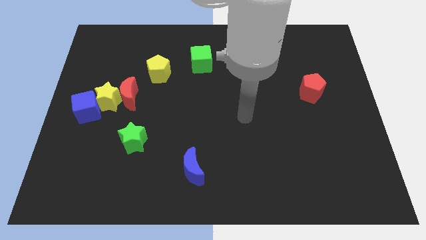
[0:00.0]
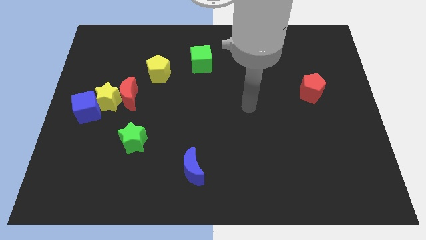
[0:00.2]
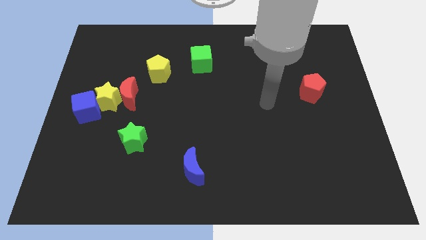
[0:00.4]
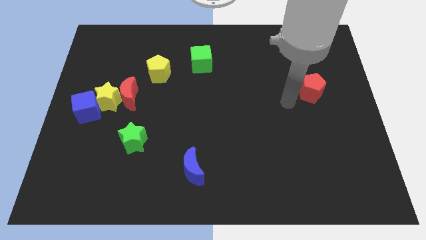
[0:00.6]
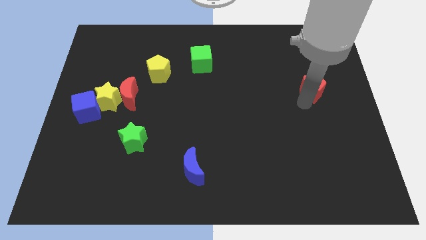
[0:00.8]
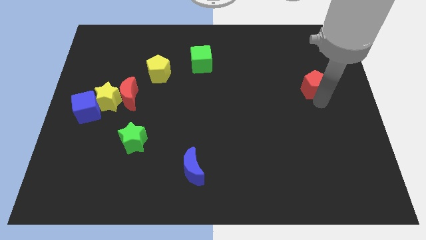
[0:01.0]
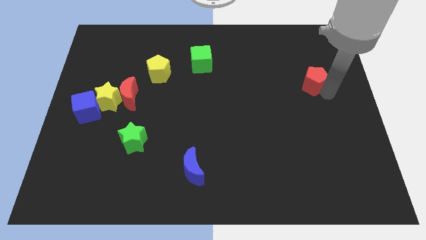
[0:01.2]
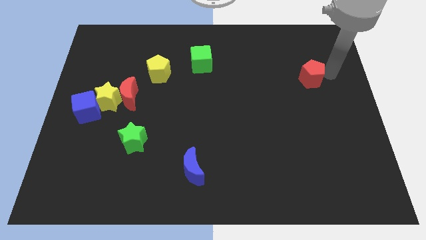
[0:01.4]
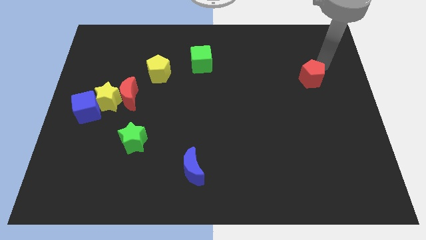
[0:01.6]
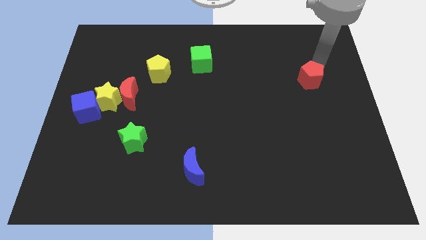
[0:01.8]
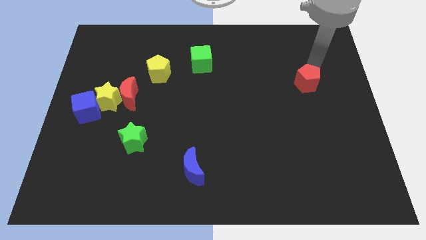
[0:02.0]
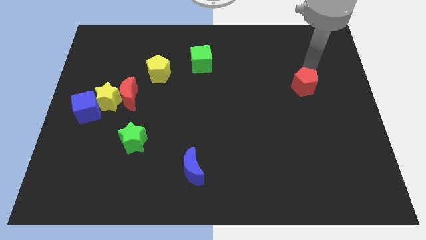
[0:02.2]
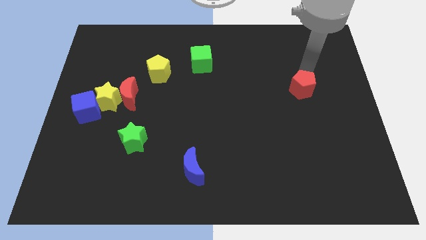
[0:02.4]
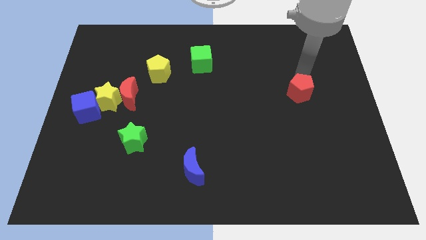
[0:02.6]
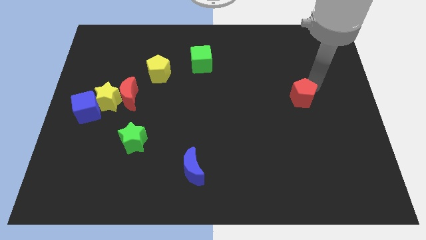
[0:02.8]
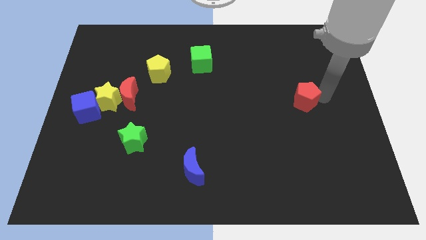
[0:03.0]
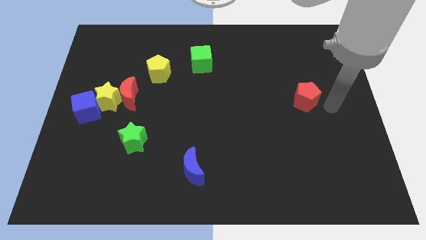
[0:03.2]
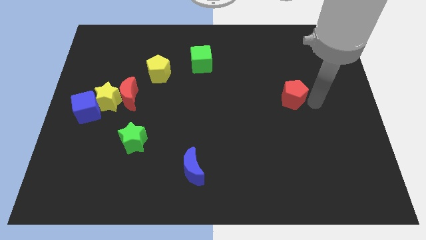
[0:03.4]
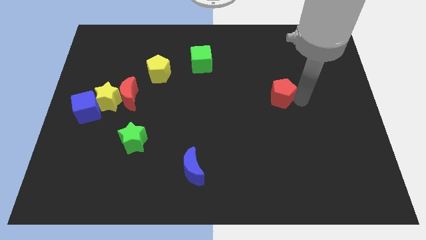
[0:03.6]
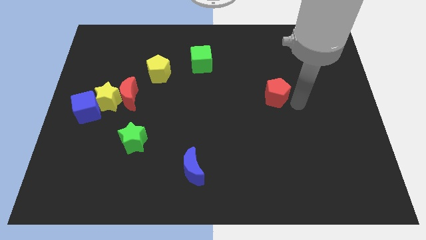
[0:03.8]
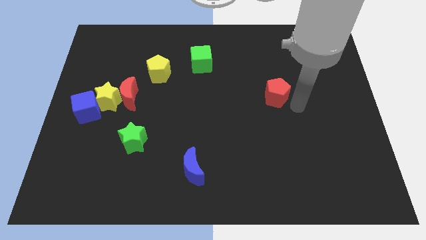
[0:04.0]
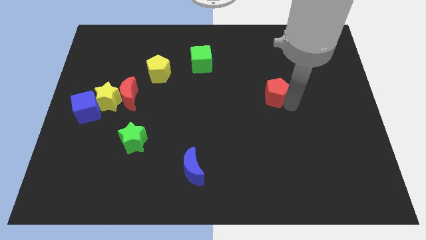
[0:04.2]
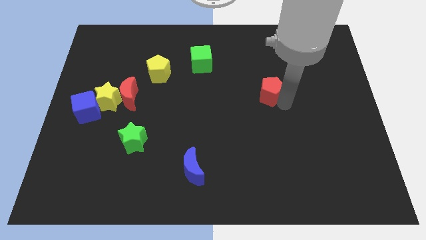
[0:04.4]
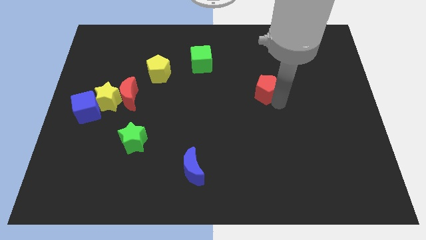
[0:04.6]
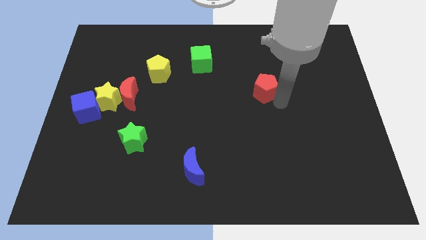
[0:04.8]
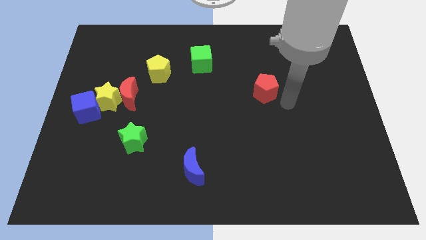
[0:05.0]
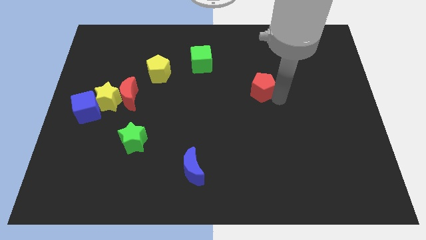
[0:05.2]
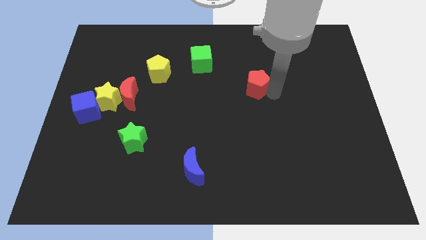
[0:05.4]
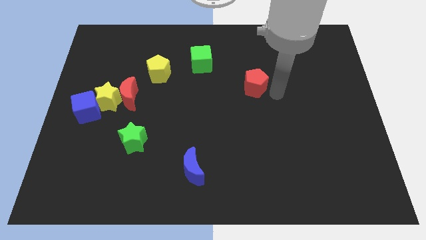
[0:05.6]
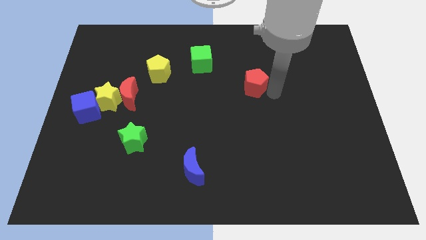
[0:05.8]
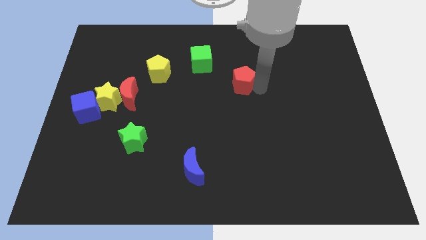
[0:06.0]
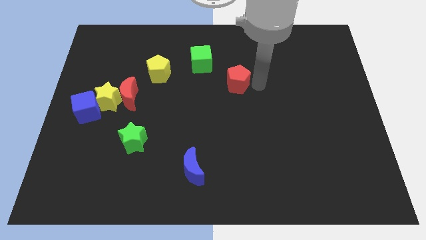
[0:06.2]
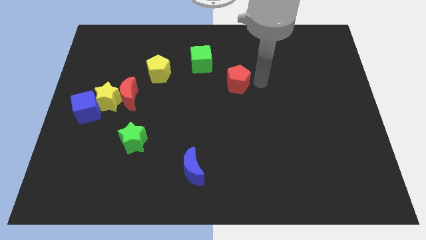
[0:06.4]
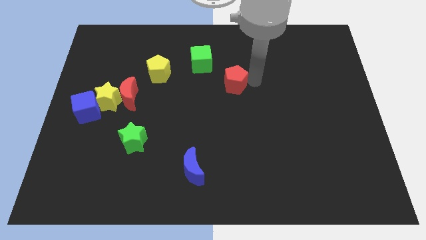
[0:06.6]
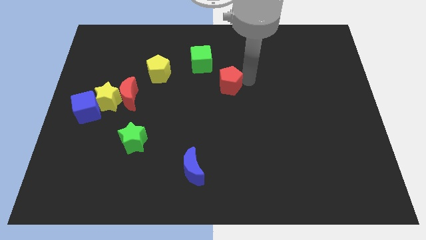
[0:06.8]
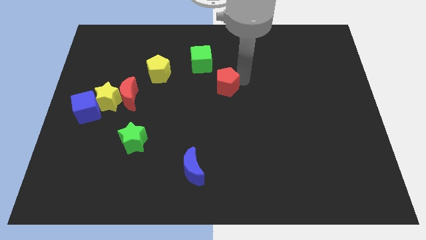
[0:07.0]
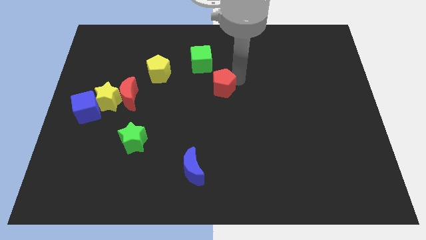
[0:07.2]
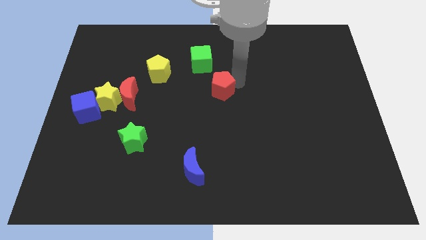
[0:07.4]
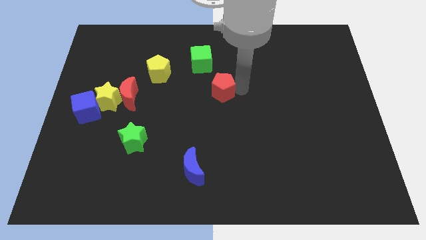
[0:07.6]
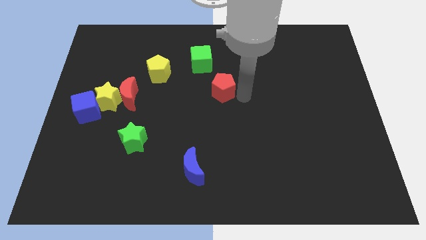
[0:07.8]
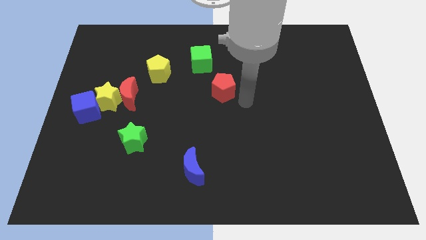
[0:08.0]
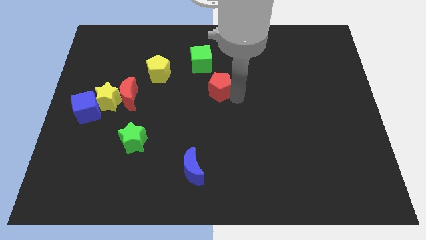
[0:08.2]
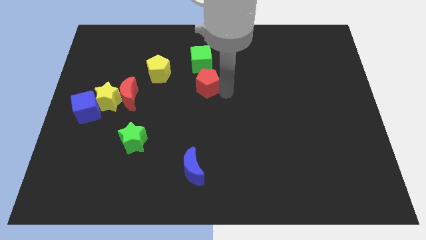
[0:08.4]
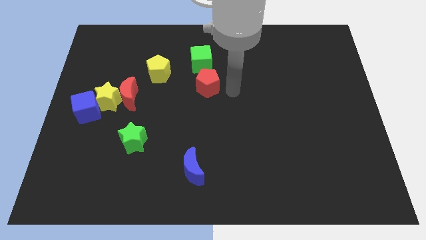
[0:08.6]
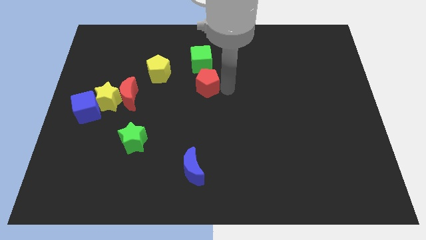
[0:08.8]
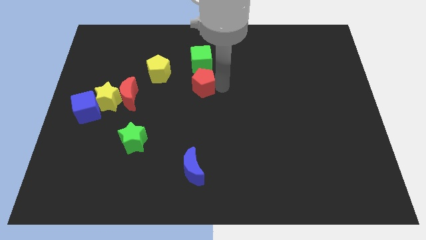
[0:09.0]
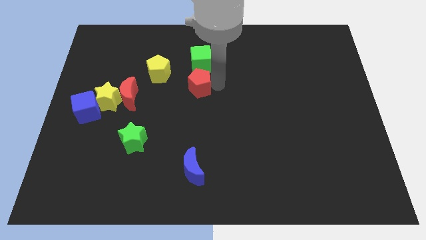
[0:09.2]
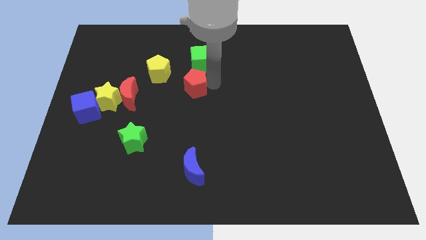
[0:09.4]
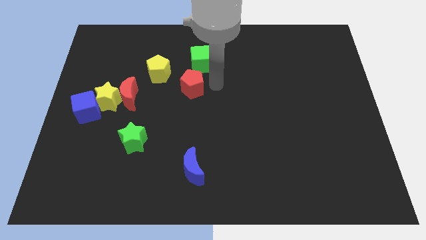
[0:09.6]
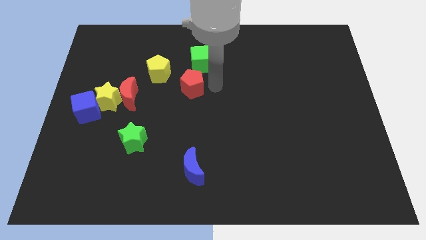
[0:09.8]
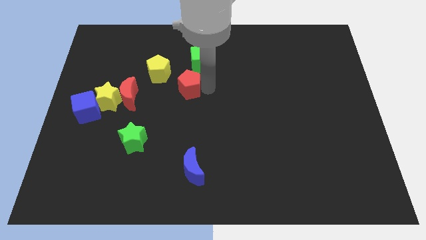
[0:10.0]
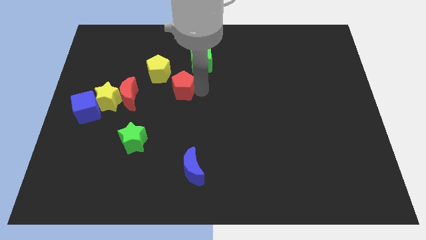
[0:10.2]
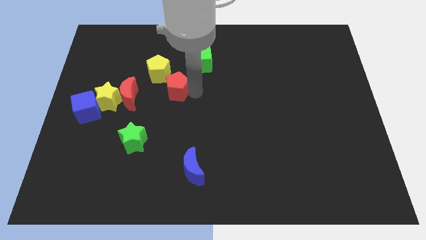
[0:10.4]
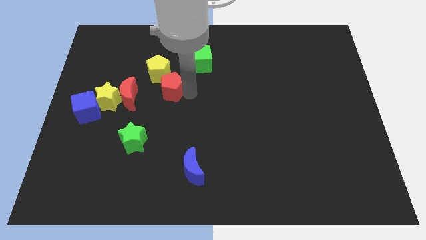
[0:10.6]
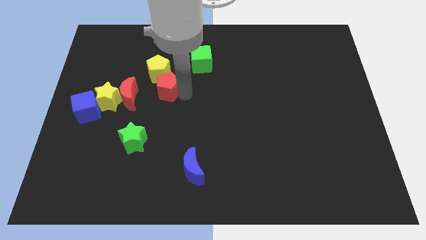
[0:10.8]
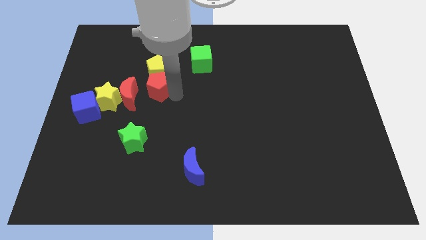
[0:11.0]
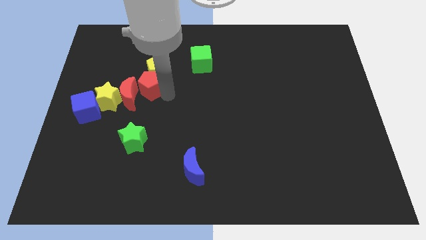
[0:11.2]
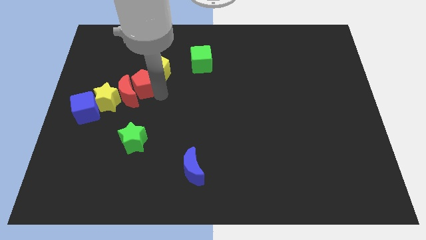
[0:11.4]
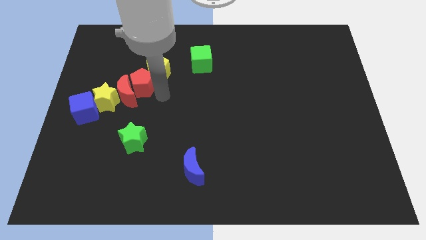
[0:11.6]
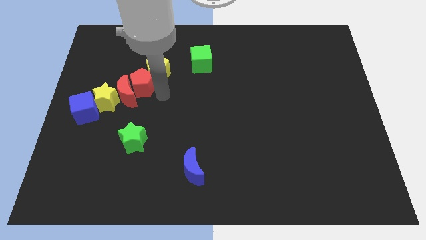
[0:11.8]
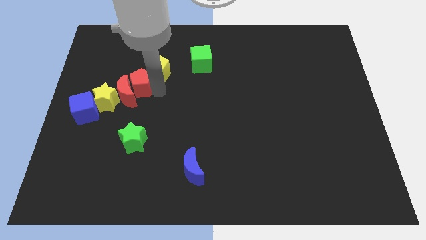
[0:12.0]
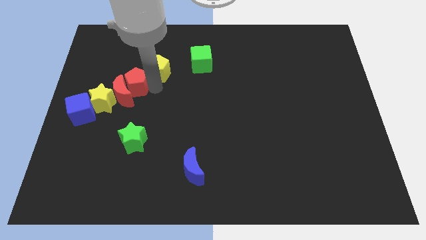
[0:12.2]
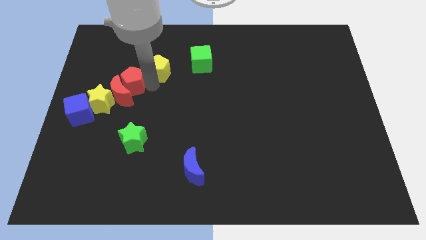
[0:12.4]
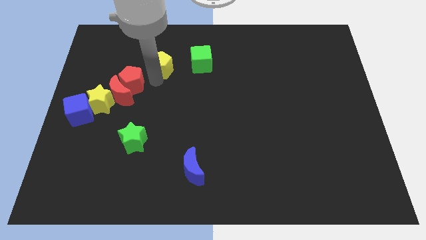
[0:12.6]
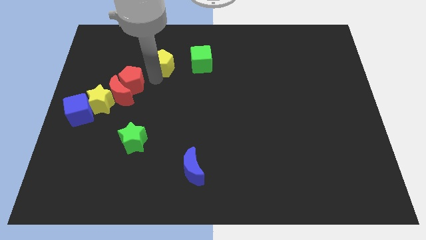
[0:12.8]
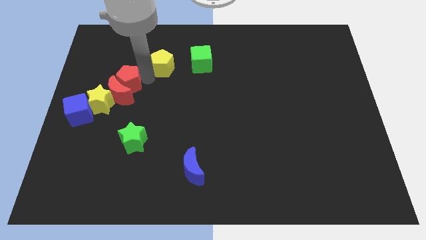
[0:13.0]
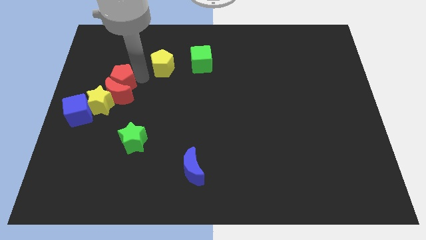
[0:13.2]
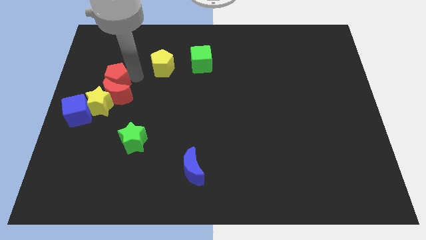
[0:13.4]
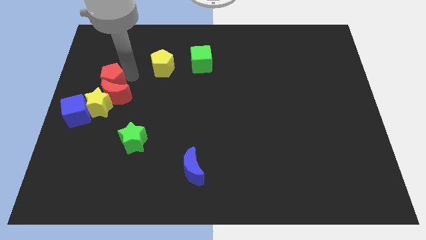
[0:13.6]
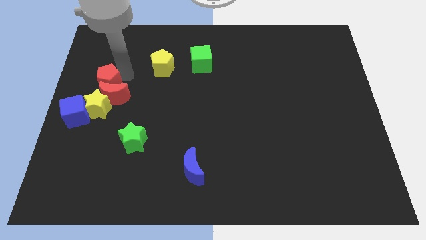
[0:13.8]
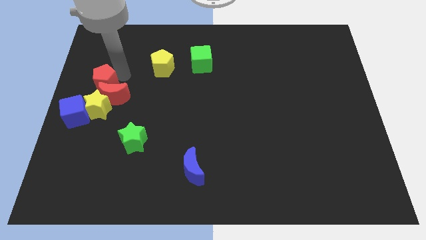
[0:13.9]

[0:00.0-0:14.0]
put the red pentagon to the center left
